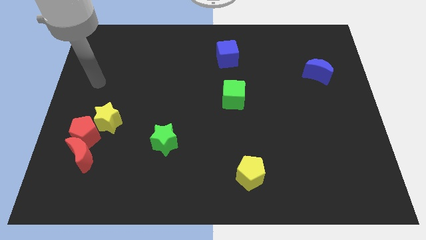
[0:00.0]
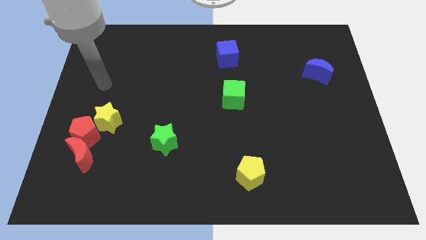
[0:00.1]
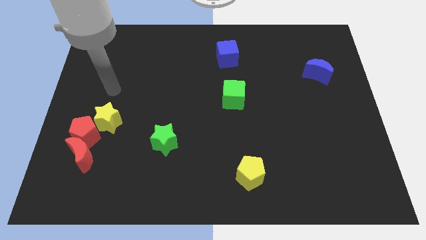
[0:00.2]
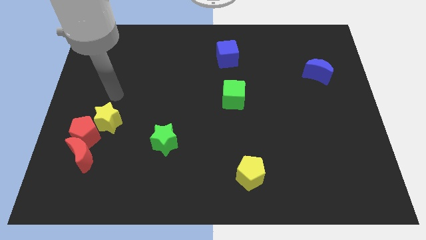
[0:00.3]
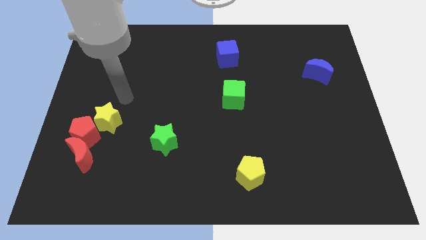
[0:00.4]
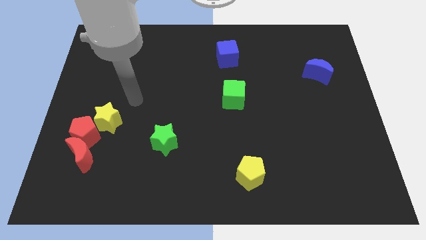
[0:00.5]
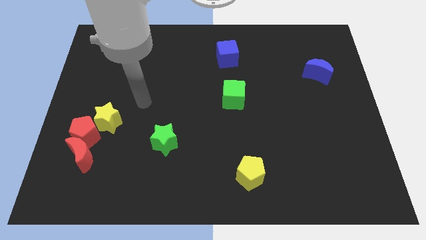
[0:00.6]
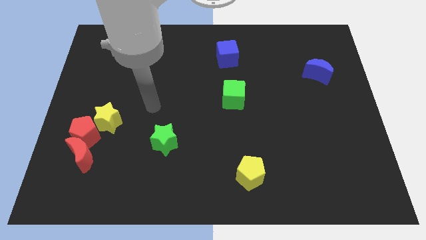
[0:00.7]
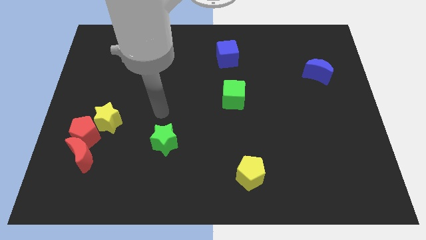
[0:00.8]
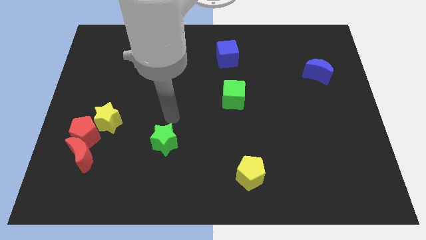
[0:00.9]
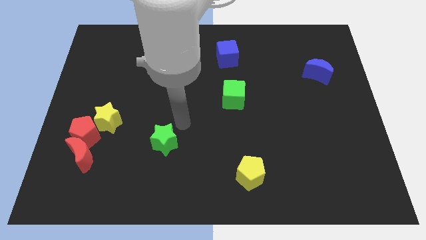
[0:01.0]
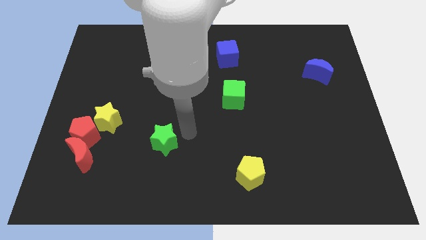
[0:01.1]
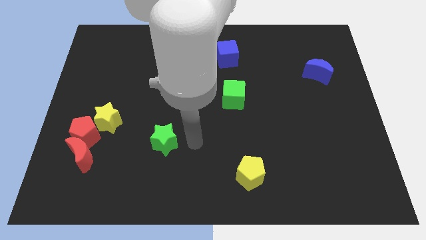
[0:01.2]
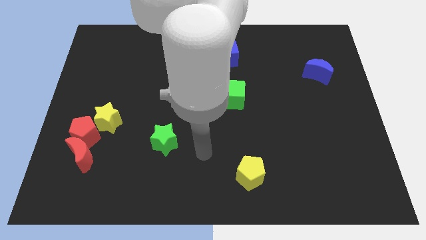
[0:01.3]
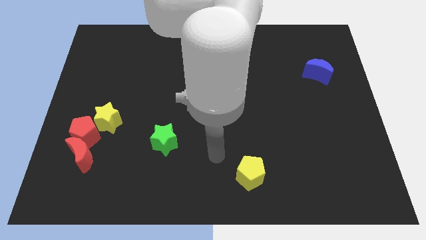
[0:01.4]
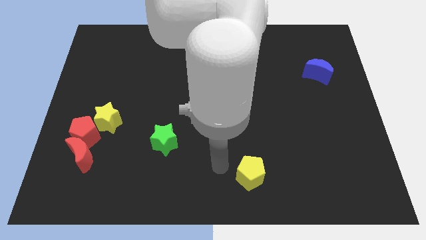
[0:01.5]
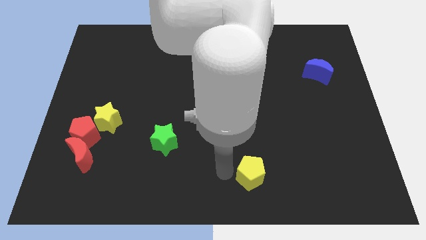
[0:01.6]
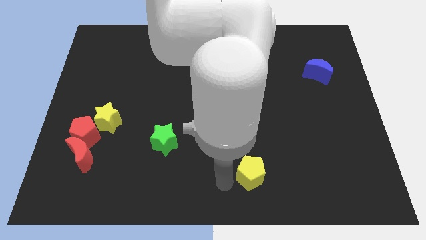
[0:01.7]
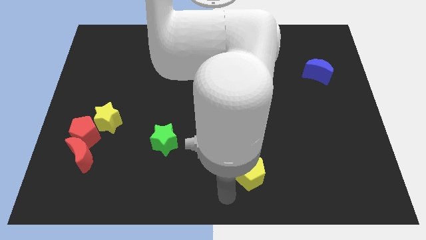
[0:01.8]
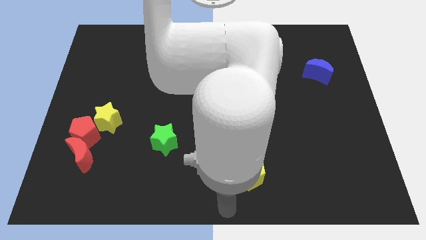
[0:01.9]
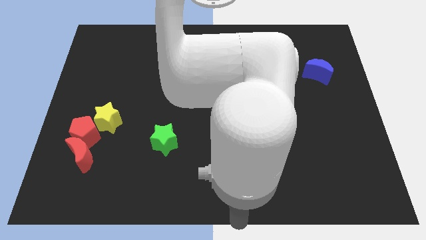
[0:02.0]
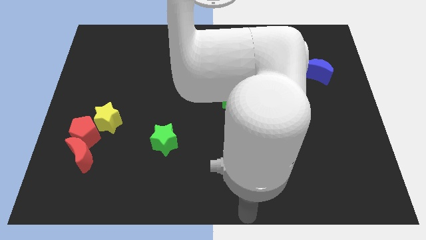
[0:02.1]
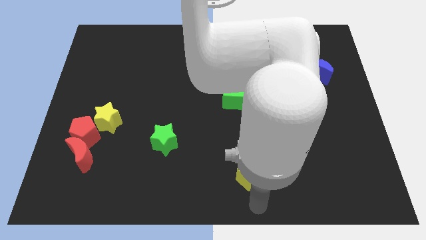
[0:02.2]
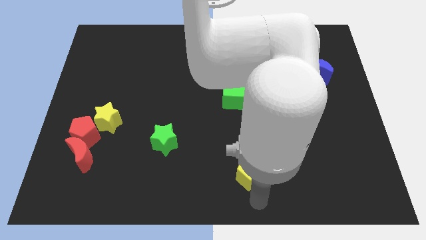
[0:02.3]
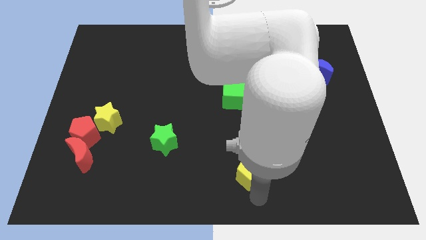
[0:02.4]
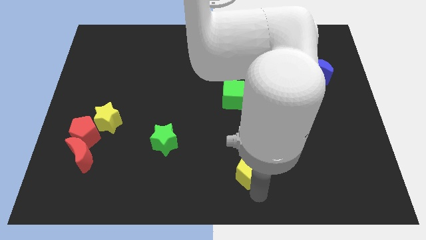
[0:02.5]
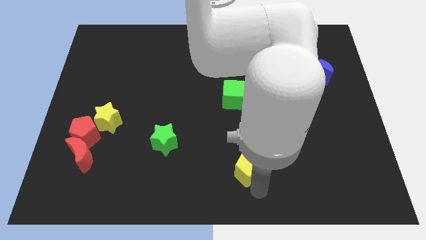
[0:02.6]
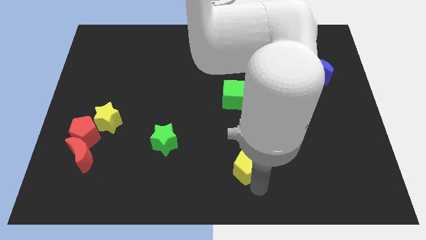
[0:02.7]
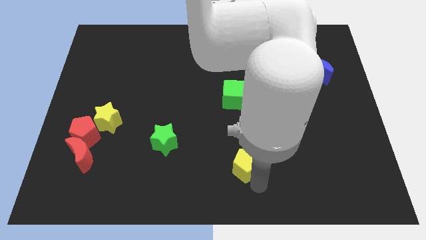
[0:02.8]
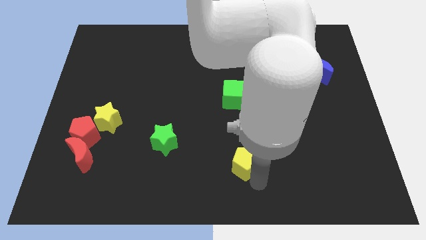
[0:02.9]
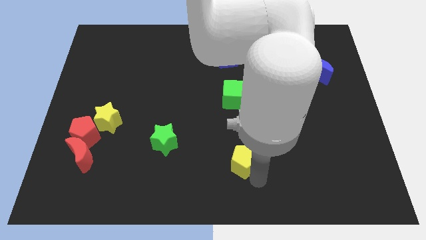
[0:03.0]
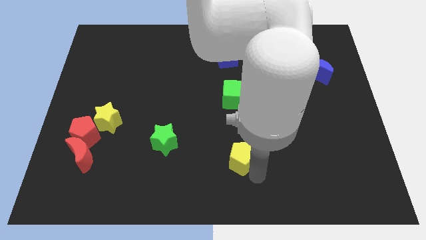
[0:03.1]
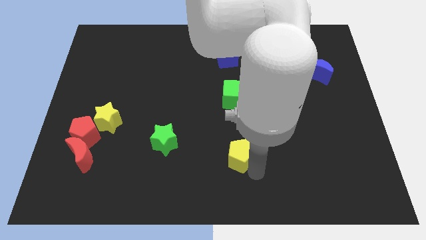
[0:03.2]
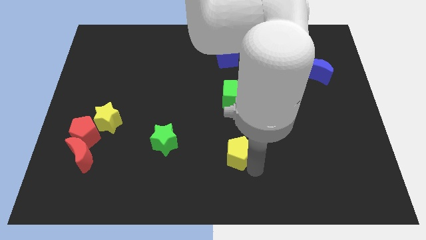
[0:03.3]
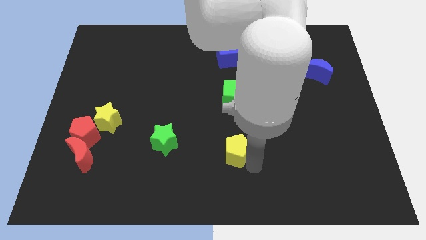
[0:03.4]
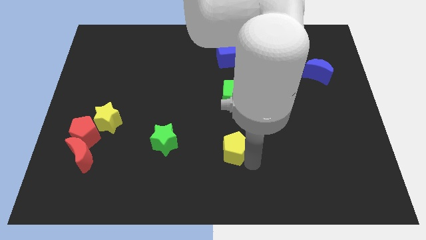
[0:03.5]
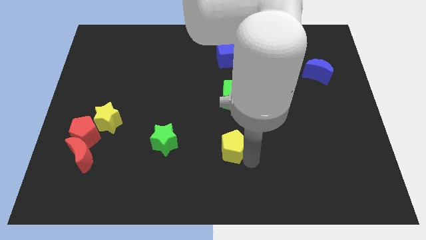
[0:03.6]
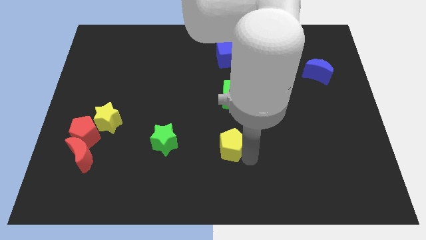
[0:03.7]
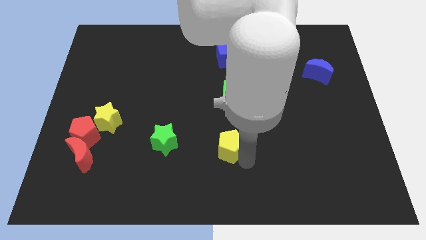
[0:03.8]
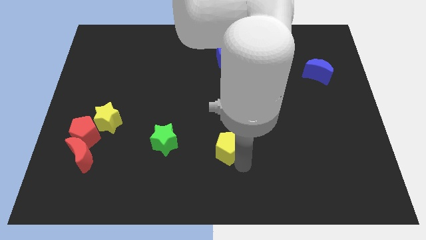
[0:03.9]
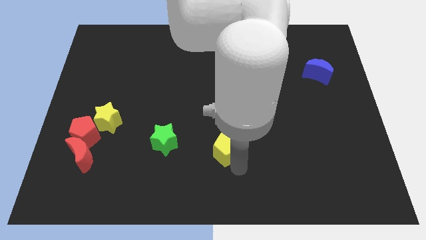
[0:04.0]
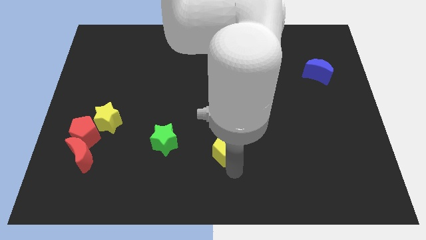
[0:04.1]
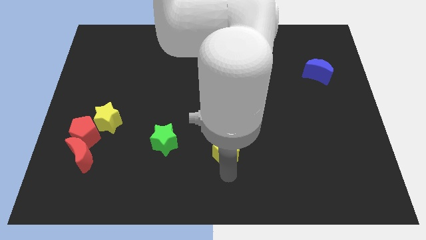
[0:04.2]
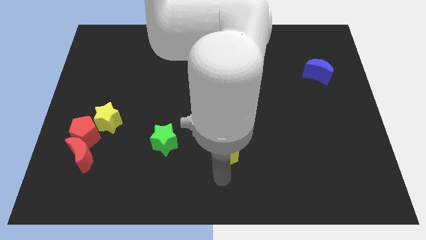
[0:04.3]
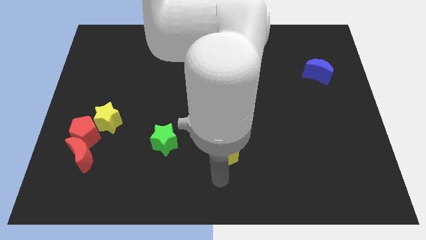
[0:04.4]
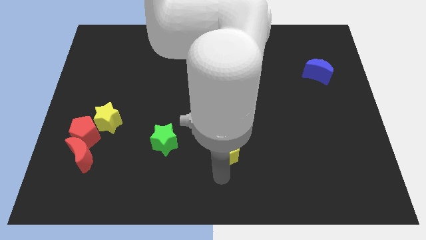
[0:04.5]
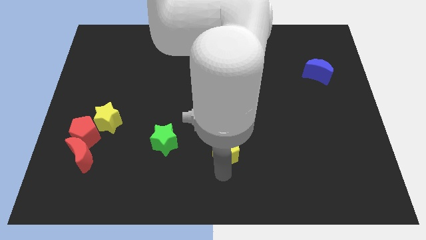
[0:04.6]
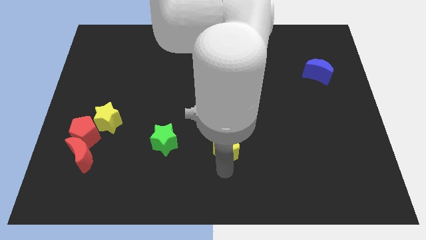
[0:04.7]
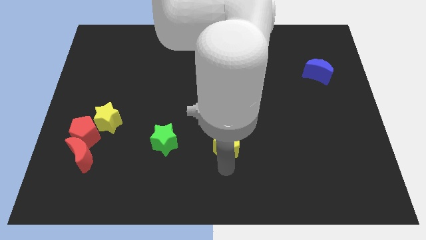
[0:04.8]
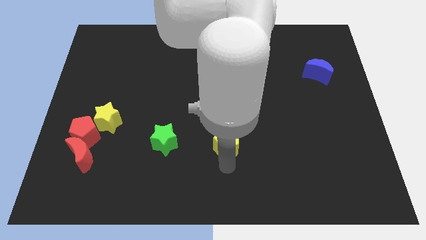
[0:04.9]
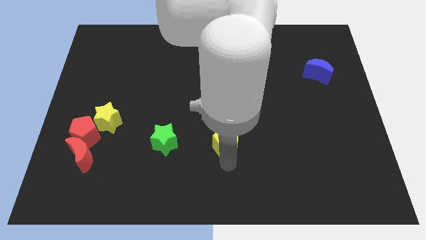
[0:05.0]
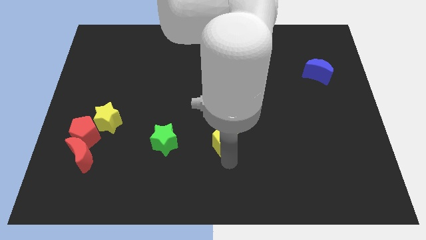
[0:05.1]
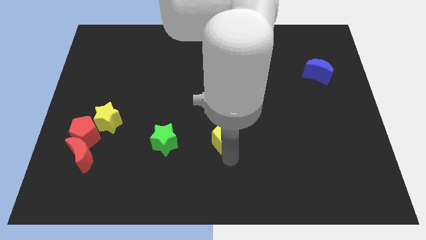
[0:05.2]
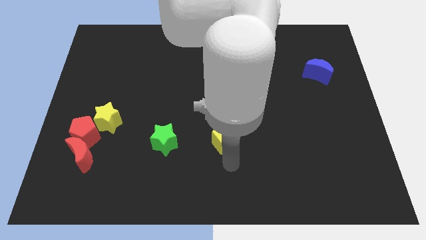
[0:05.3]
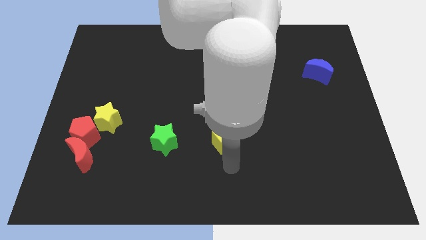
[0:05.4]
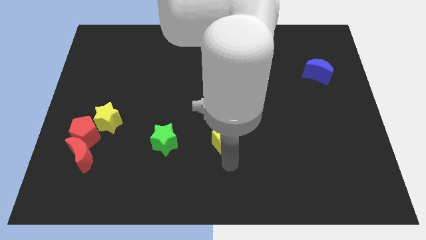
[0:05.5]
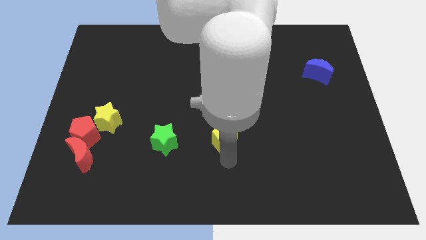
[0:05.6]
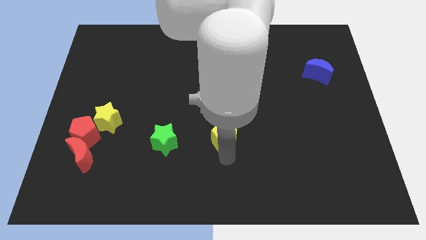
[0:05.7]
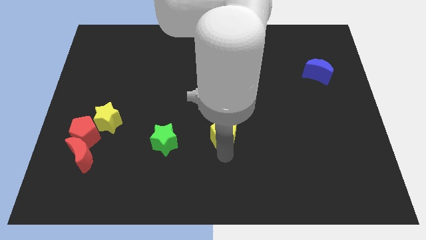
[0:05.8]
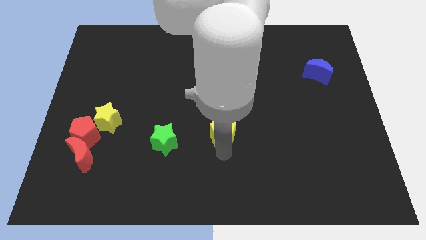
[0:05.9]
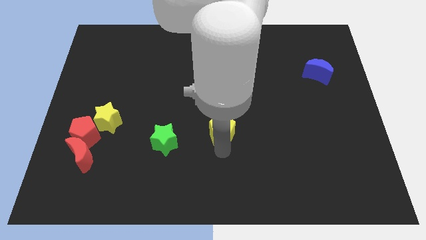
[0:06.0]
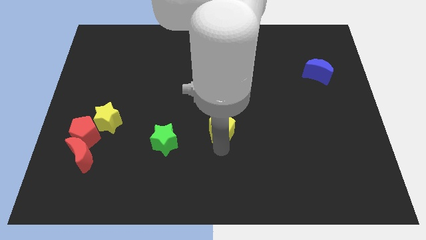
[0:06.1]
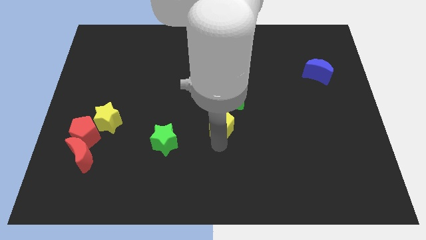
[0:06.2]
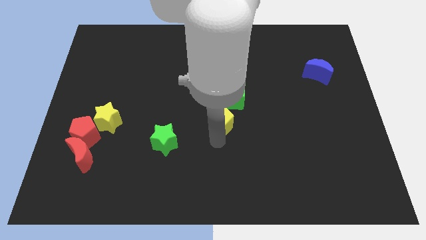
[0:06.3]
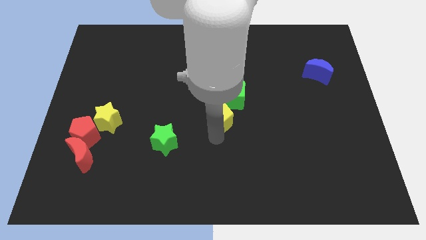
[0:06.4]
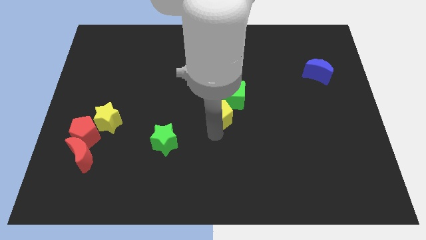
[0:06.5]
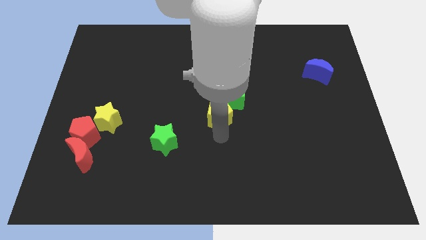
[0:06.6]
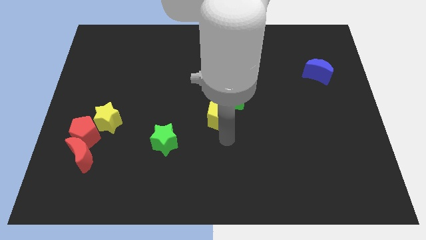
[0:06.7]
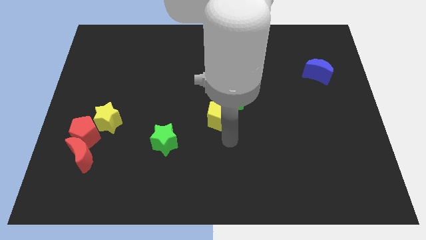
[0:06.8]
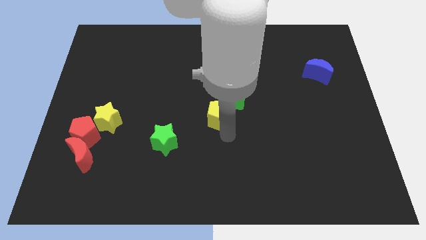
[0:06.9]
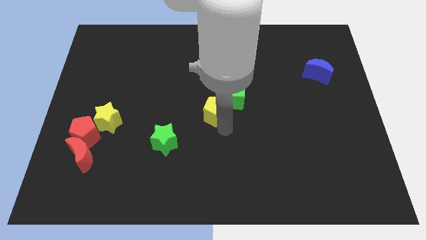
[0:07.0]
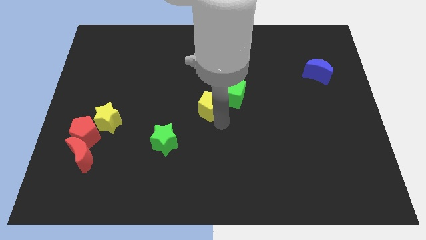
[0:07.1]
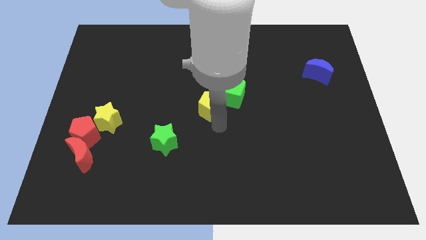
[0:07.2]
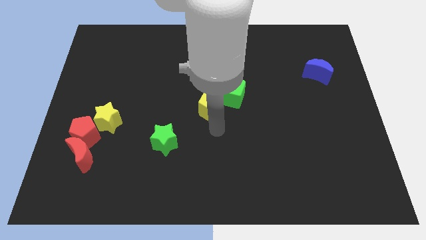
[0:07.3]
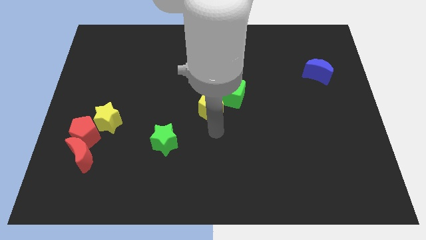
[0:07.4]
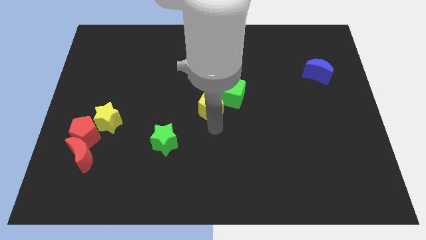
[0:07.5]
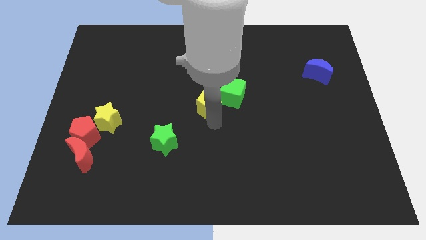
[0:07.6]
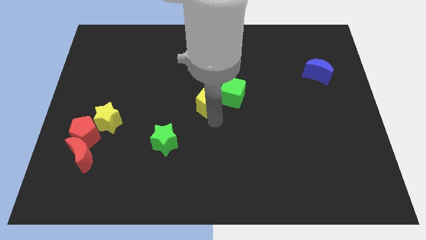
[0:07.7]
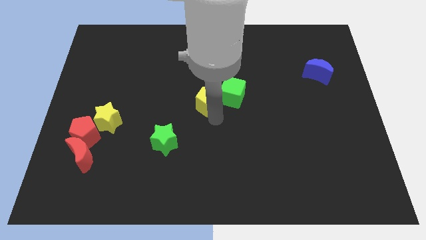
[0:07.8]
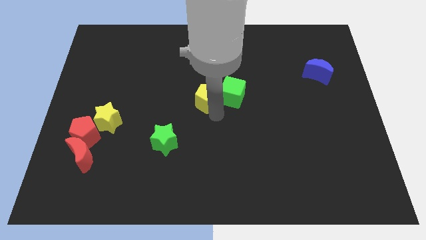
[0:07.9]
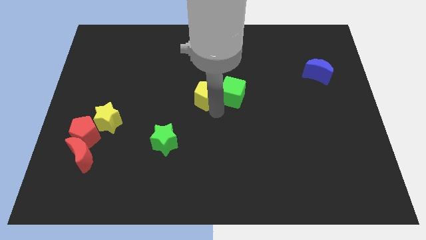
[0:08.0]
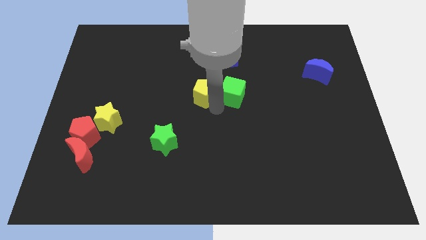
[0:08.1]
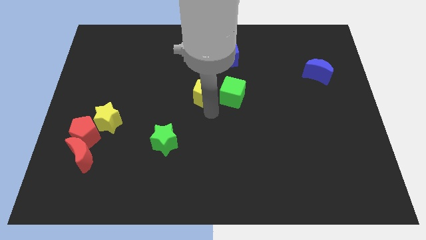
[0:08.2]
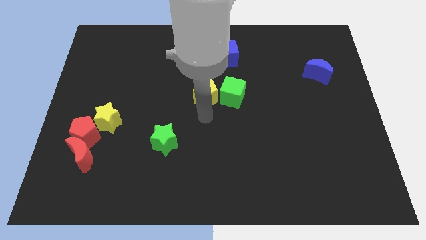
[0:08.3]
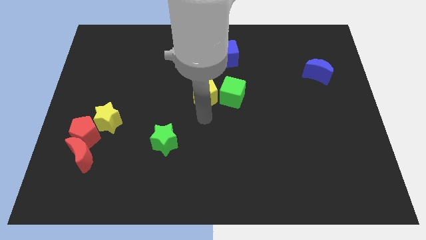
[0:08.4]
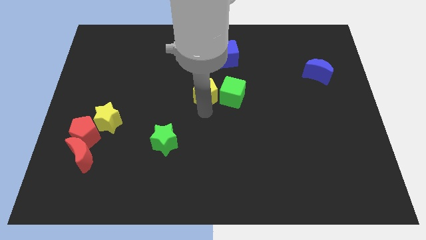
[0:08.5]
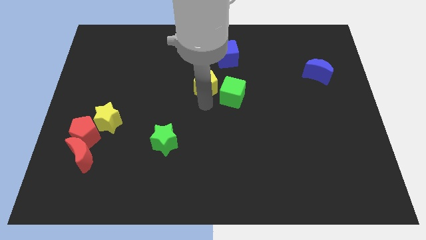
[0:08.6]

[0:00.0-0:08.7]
slide the yellow pentagon diagonally down and to the left of the blue cube
